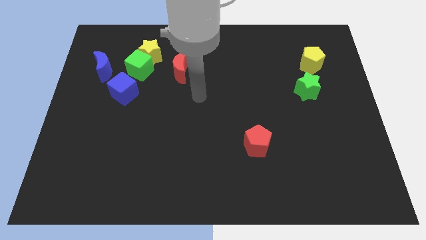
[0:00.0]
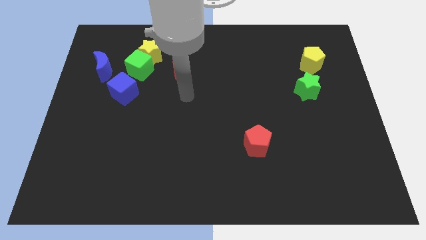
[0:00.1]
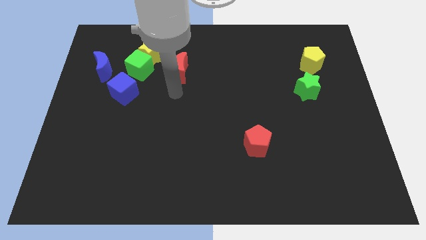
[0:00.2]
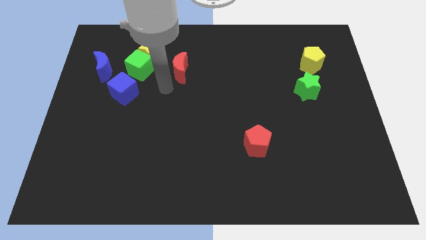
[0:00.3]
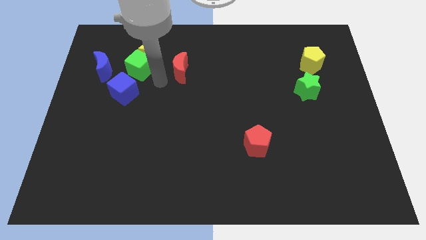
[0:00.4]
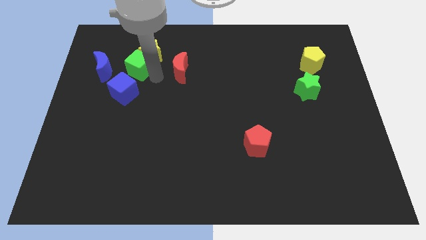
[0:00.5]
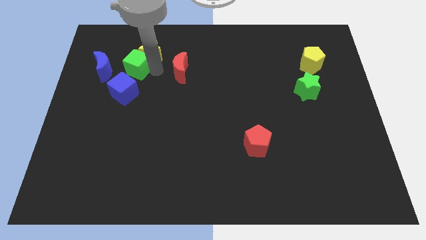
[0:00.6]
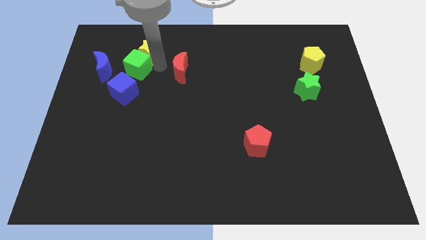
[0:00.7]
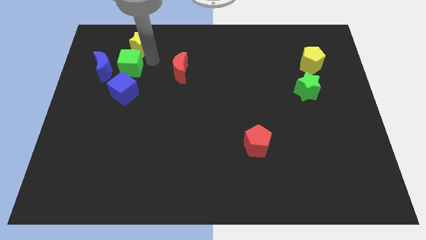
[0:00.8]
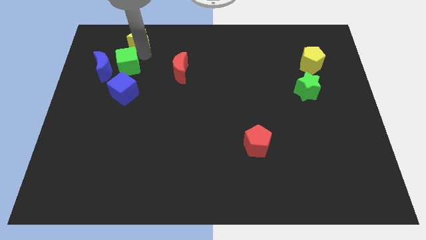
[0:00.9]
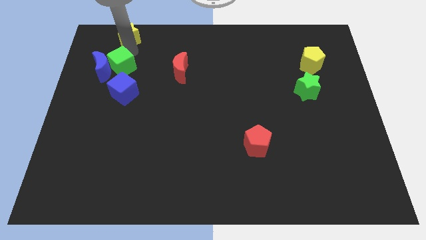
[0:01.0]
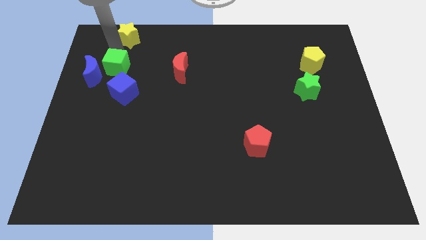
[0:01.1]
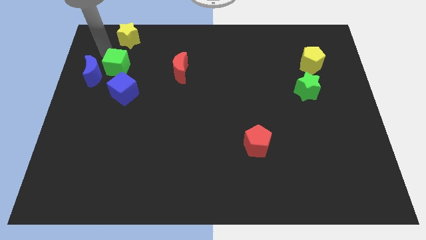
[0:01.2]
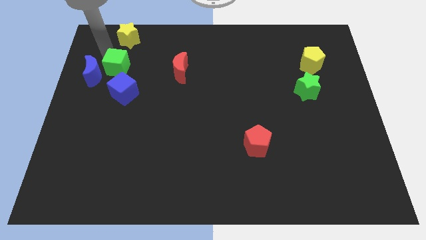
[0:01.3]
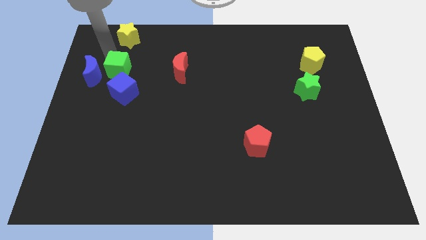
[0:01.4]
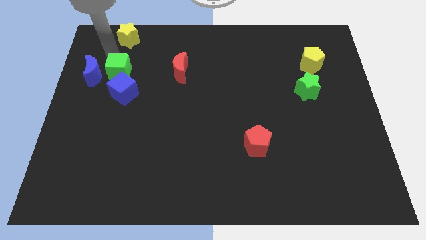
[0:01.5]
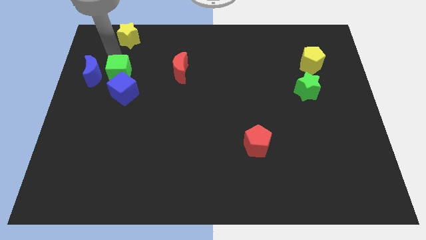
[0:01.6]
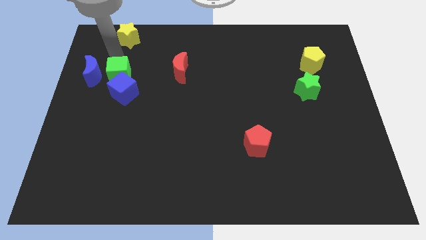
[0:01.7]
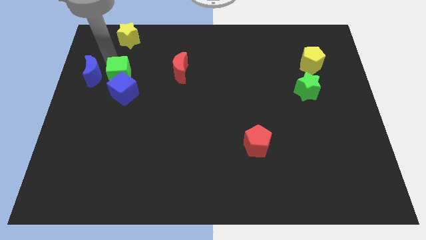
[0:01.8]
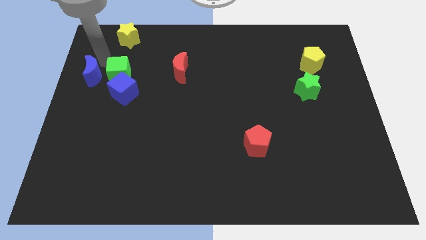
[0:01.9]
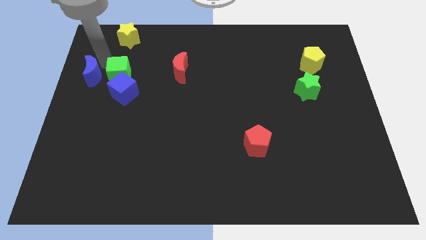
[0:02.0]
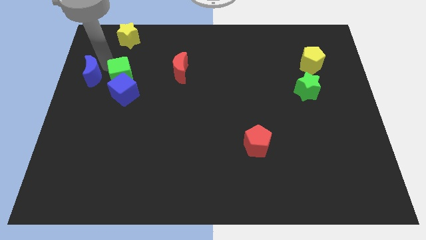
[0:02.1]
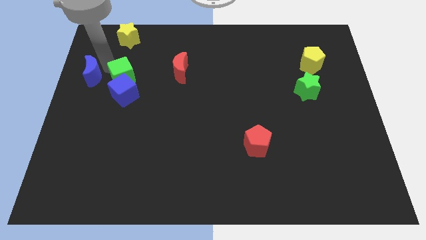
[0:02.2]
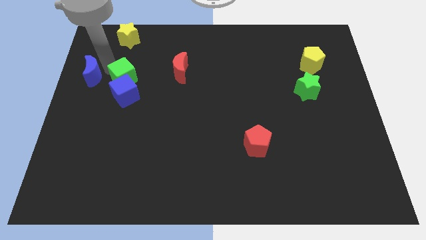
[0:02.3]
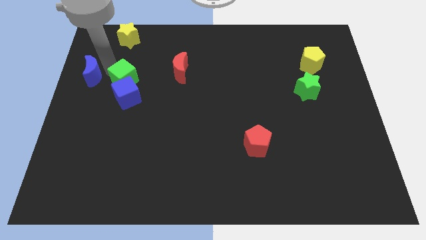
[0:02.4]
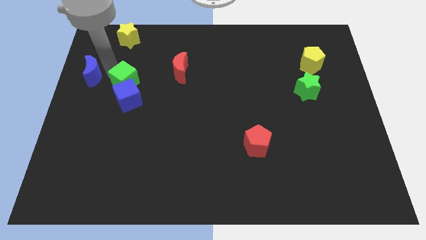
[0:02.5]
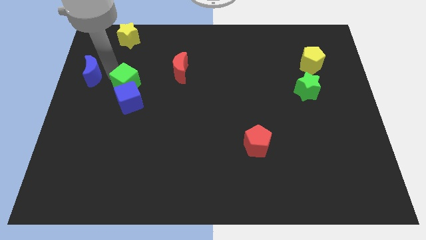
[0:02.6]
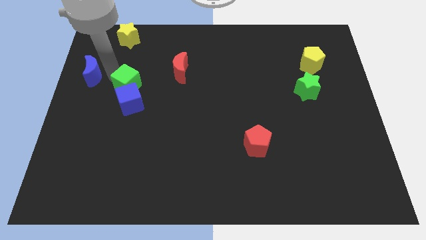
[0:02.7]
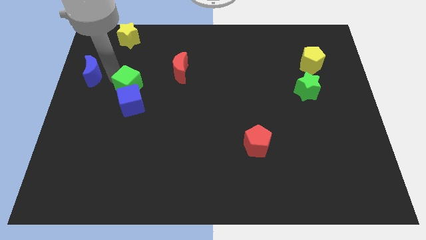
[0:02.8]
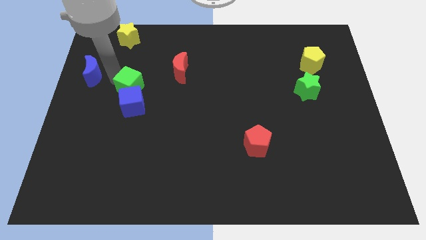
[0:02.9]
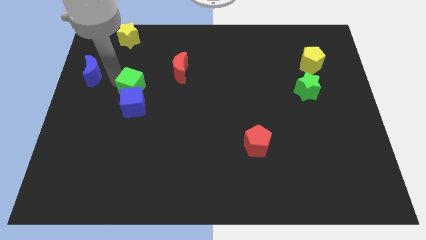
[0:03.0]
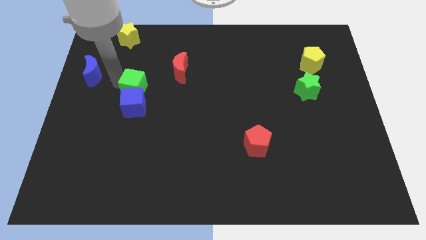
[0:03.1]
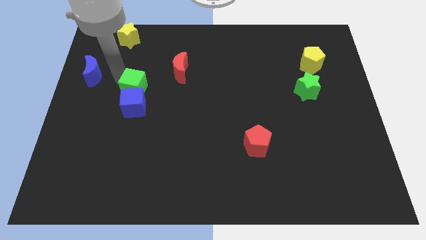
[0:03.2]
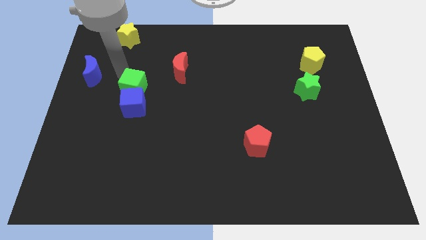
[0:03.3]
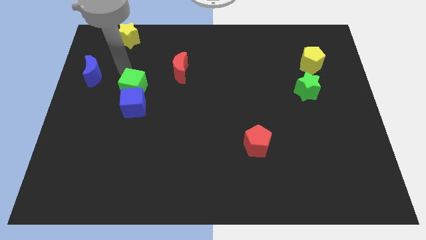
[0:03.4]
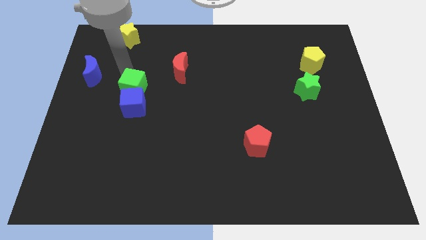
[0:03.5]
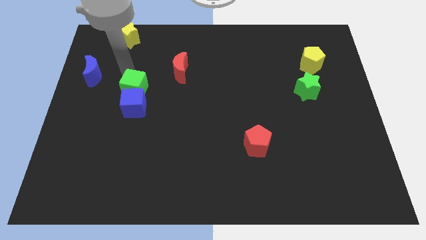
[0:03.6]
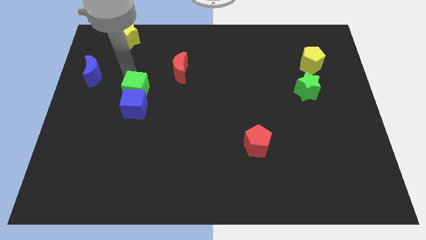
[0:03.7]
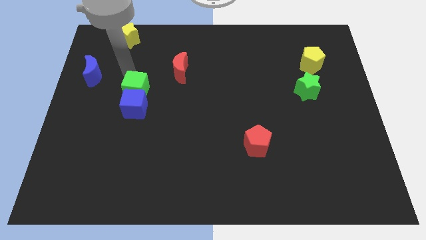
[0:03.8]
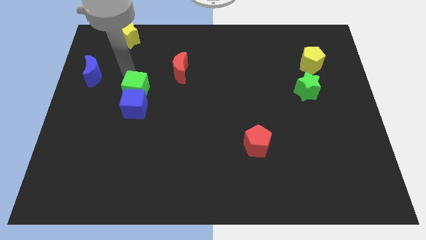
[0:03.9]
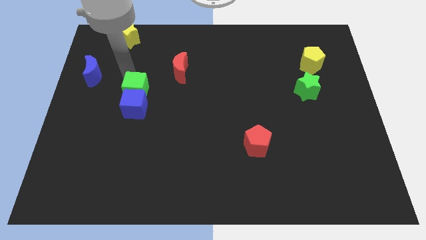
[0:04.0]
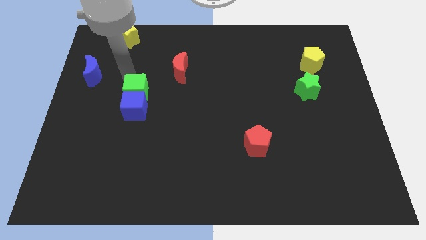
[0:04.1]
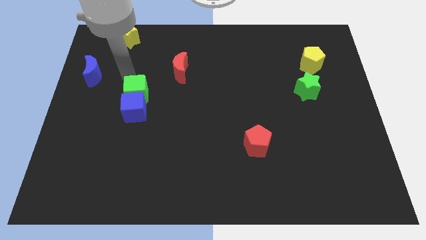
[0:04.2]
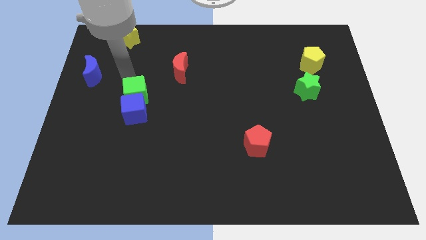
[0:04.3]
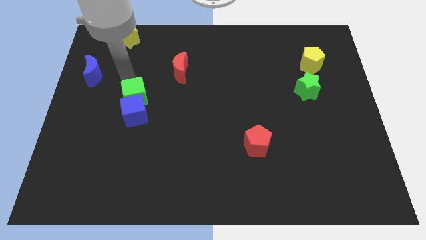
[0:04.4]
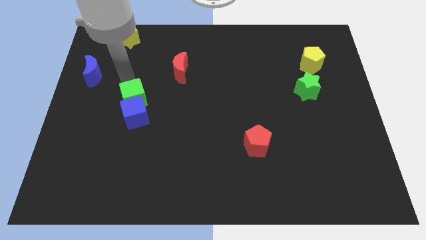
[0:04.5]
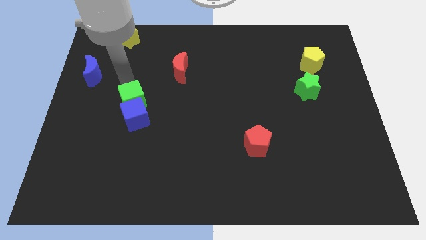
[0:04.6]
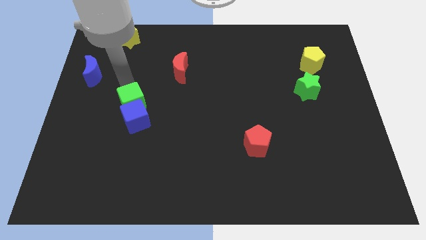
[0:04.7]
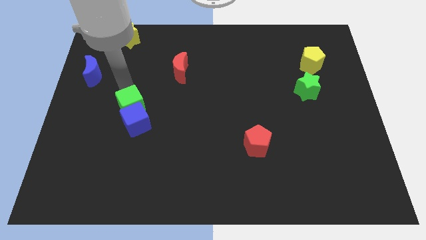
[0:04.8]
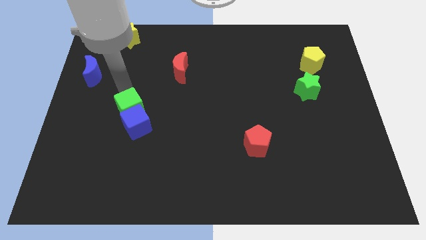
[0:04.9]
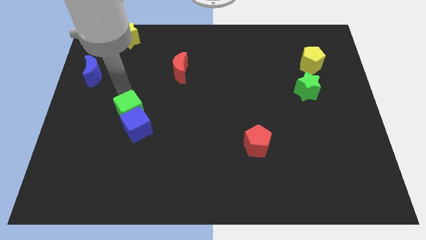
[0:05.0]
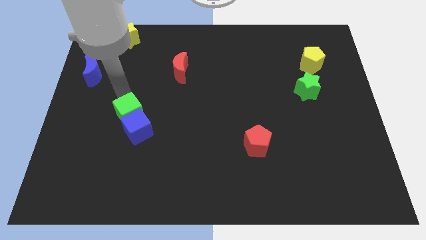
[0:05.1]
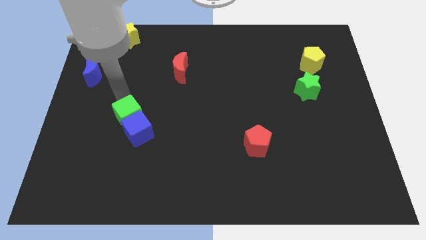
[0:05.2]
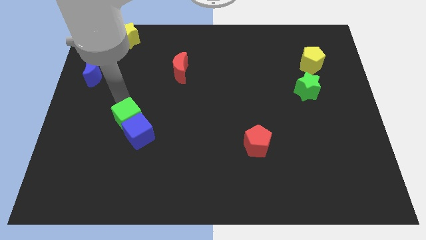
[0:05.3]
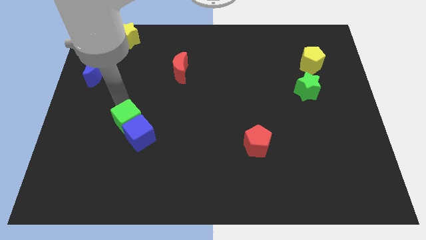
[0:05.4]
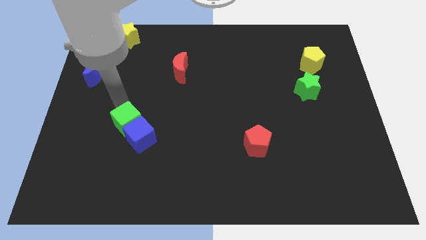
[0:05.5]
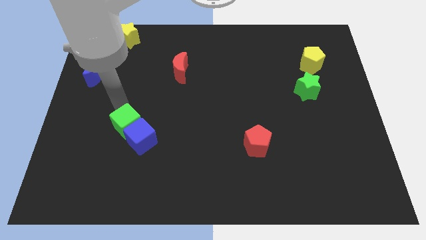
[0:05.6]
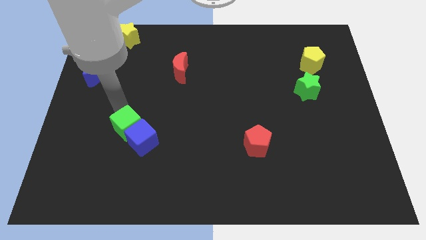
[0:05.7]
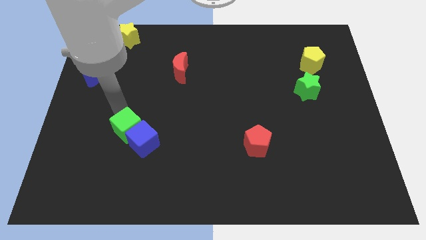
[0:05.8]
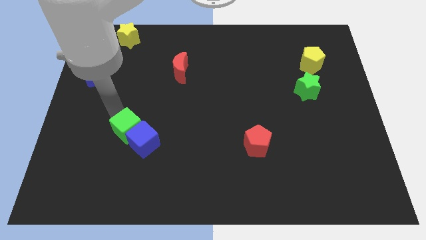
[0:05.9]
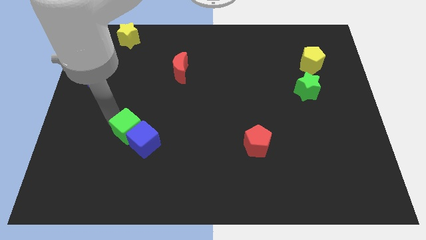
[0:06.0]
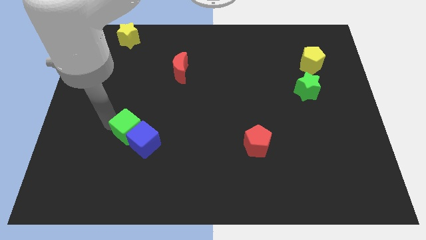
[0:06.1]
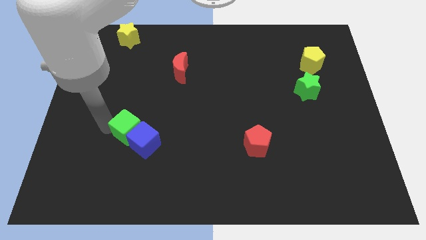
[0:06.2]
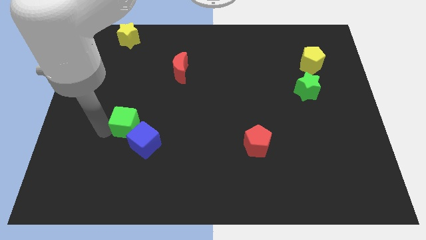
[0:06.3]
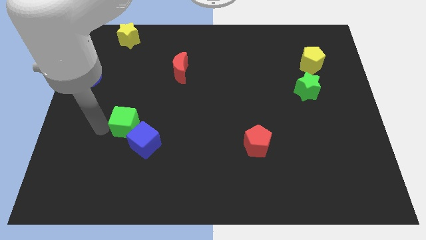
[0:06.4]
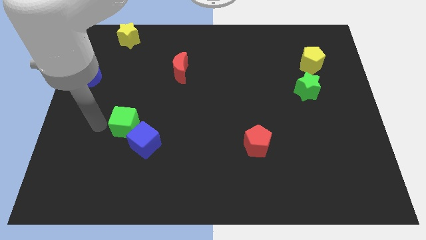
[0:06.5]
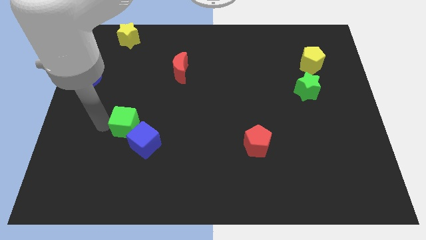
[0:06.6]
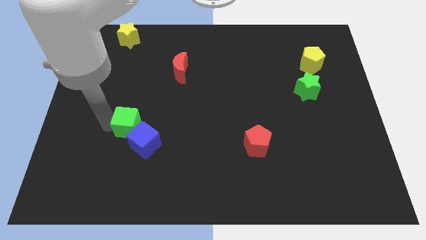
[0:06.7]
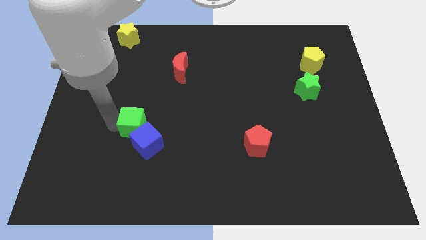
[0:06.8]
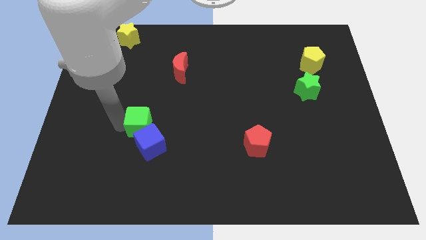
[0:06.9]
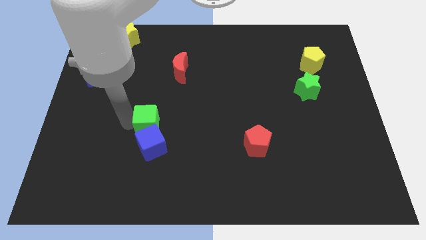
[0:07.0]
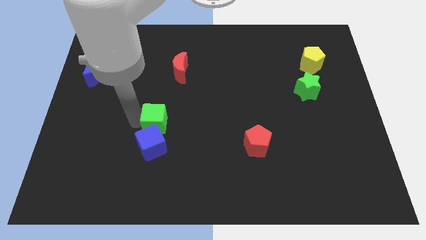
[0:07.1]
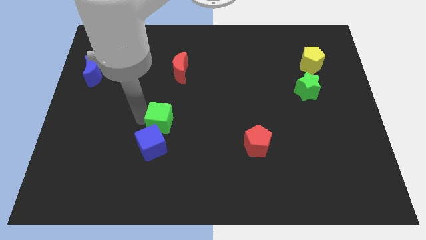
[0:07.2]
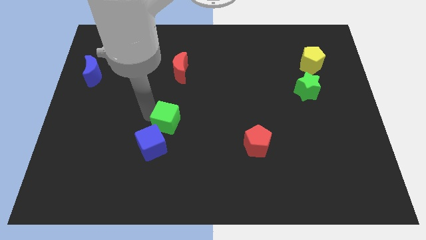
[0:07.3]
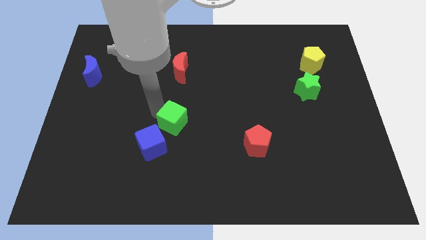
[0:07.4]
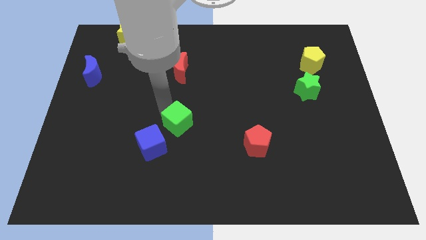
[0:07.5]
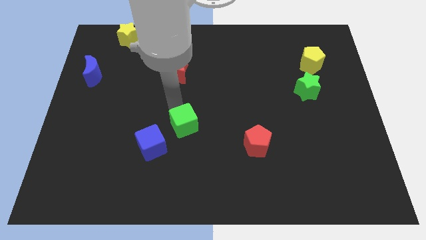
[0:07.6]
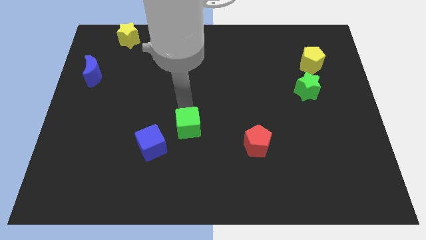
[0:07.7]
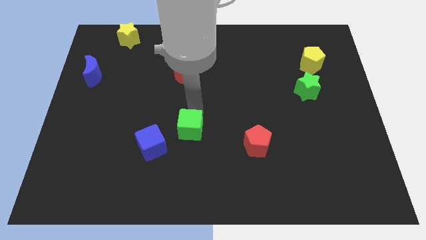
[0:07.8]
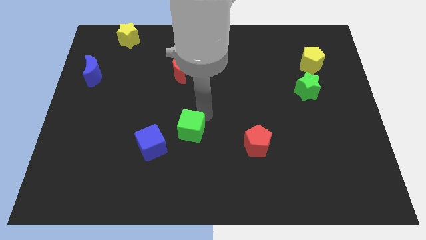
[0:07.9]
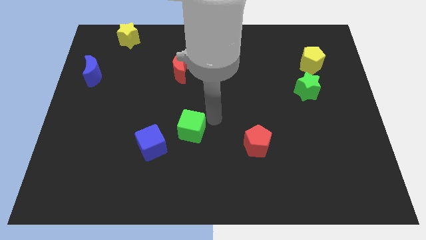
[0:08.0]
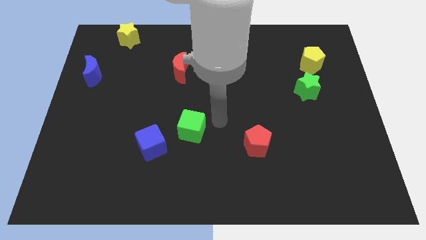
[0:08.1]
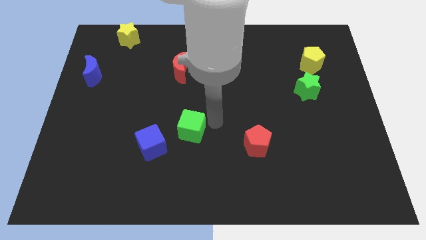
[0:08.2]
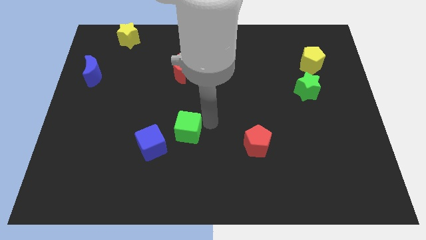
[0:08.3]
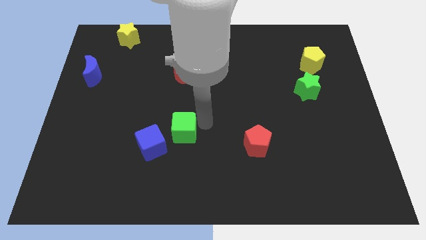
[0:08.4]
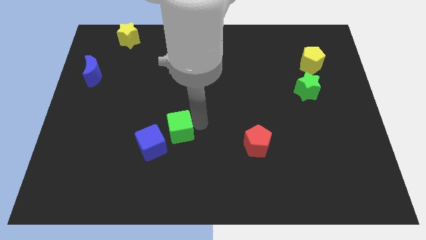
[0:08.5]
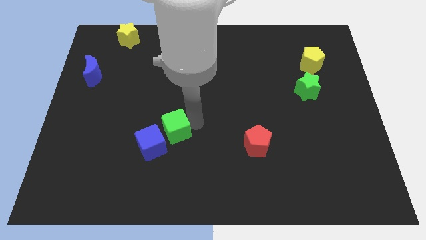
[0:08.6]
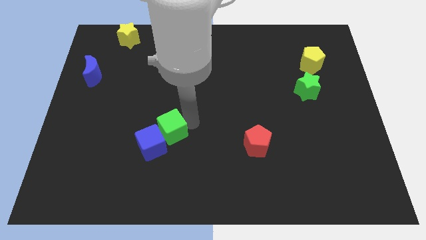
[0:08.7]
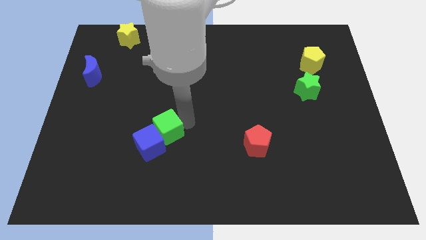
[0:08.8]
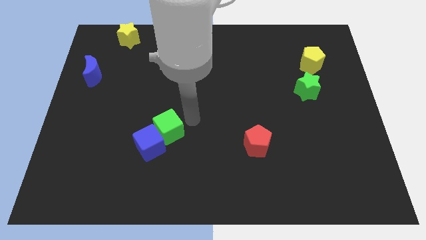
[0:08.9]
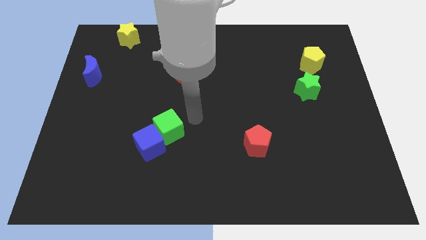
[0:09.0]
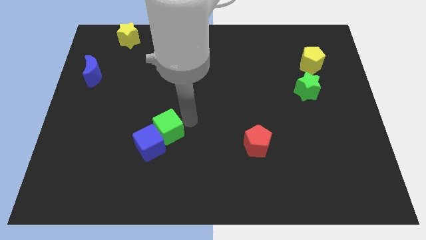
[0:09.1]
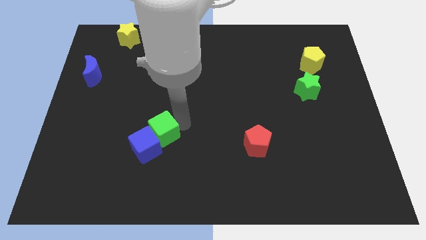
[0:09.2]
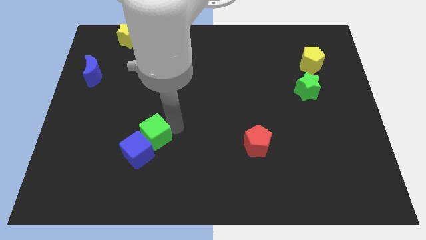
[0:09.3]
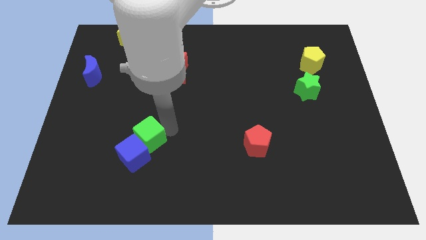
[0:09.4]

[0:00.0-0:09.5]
move the green cube down
